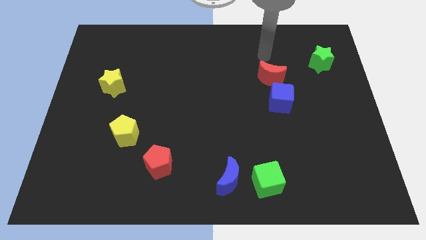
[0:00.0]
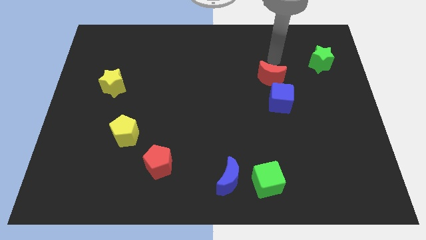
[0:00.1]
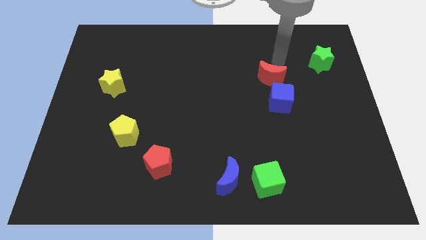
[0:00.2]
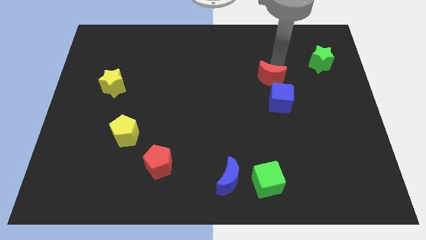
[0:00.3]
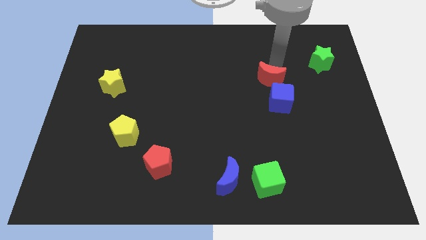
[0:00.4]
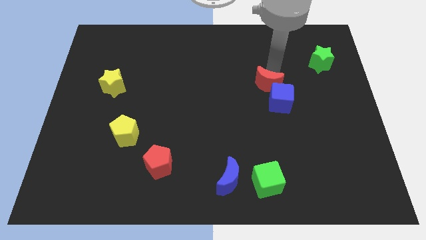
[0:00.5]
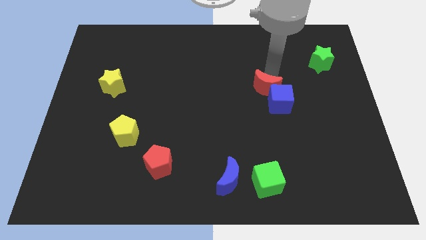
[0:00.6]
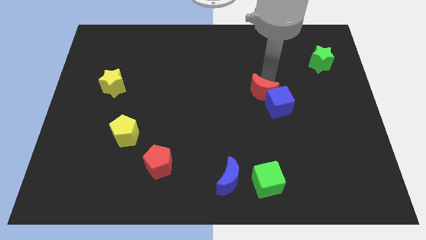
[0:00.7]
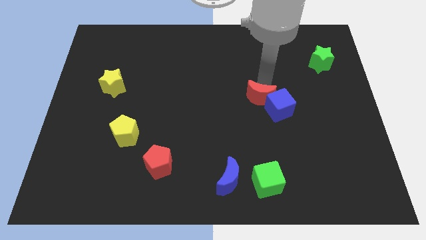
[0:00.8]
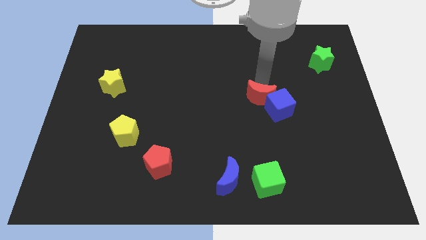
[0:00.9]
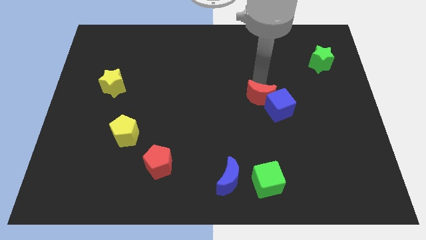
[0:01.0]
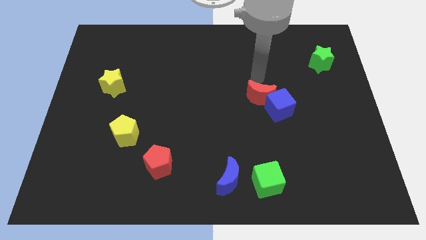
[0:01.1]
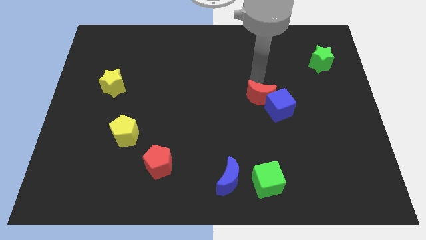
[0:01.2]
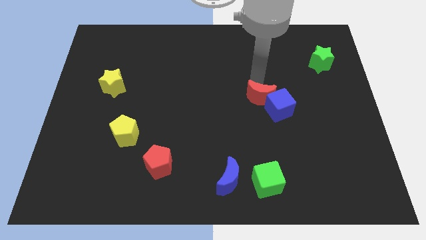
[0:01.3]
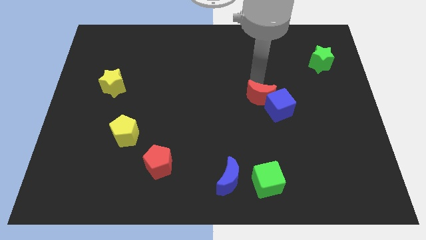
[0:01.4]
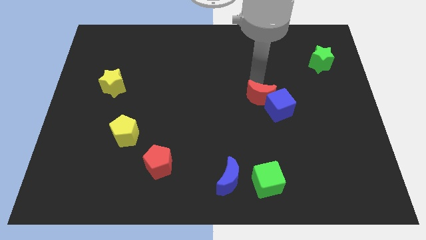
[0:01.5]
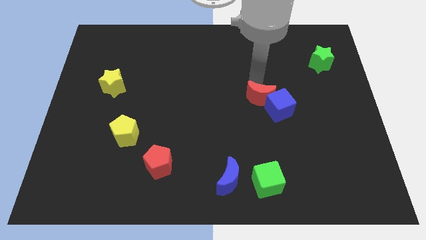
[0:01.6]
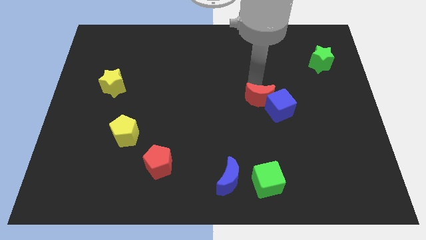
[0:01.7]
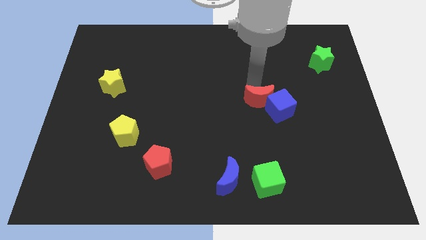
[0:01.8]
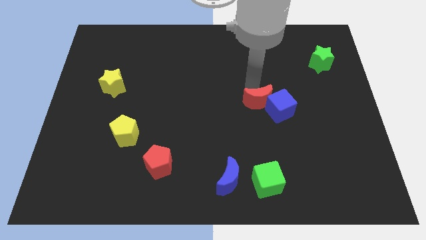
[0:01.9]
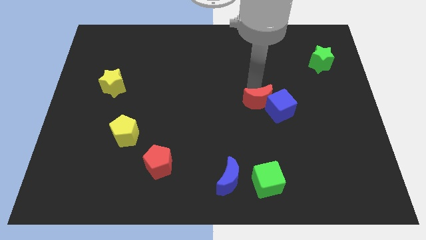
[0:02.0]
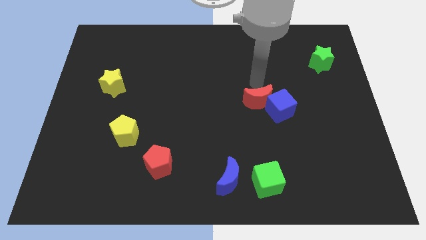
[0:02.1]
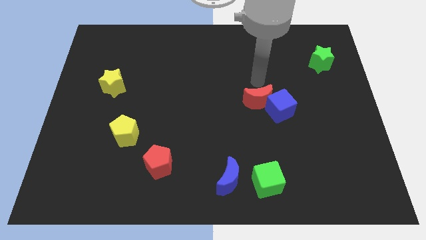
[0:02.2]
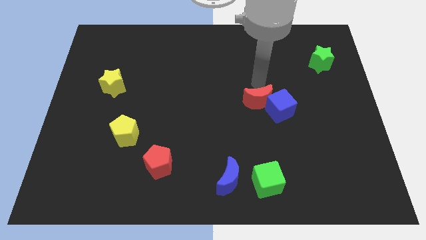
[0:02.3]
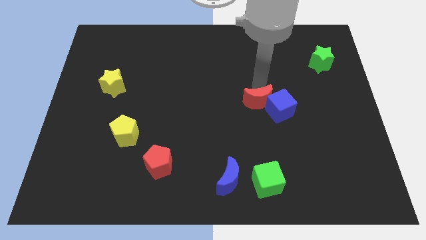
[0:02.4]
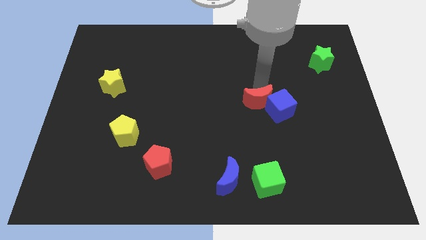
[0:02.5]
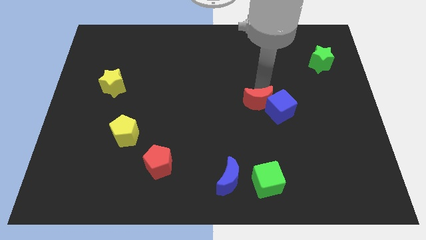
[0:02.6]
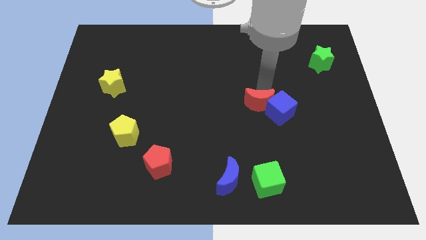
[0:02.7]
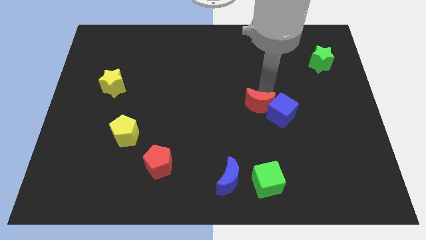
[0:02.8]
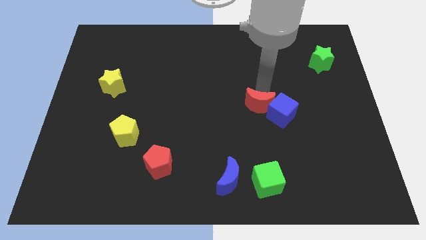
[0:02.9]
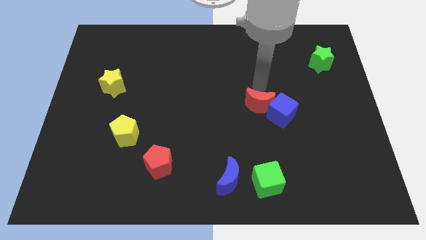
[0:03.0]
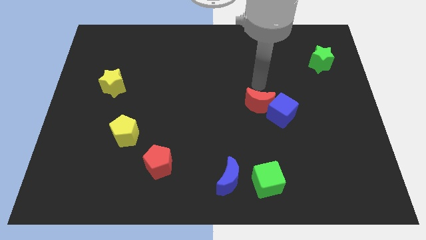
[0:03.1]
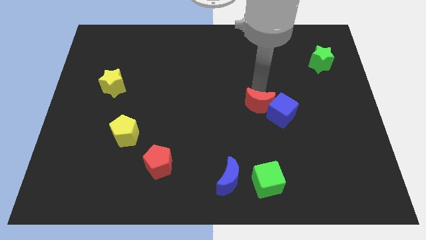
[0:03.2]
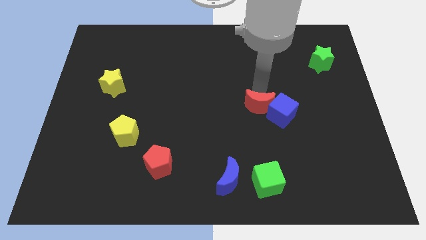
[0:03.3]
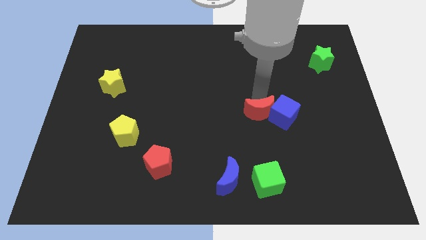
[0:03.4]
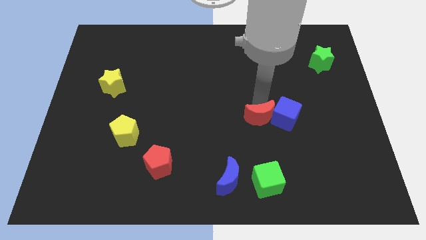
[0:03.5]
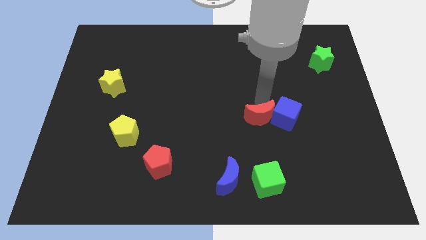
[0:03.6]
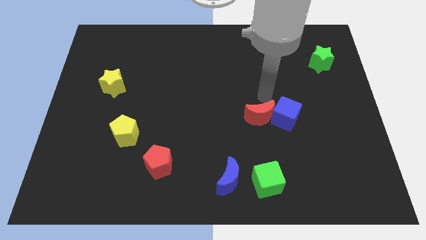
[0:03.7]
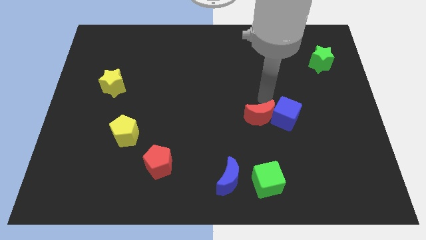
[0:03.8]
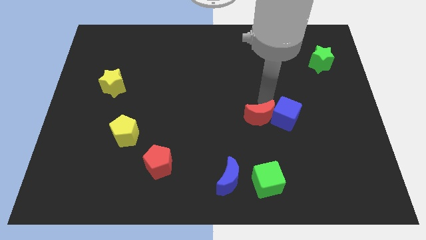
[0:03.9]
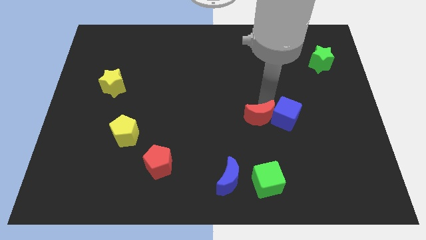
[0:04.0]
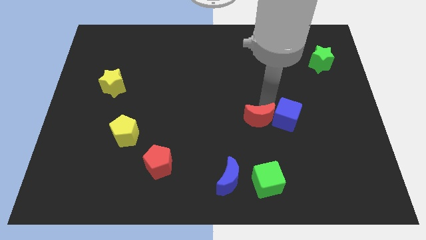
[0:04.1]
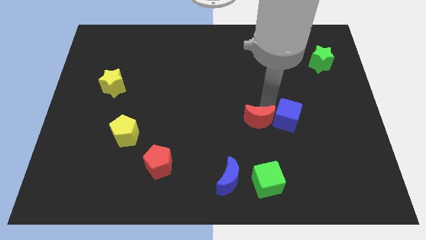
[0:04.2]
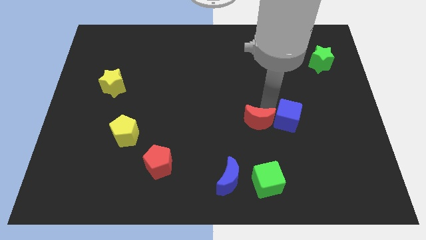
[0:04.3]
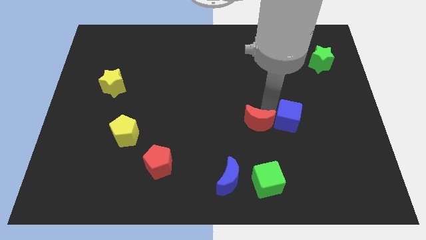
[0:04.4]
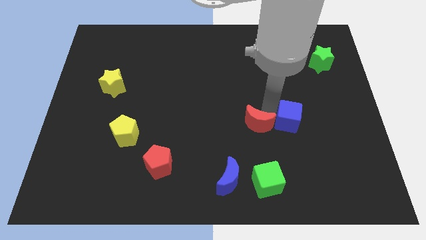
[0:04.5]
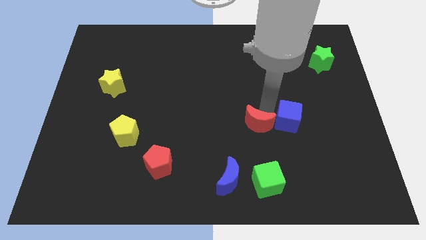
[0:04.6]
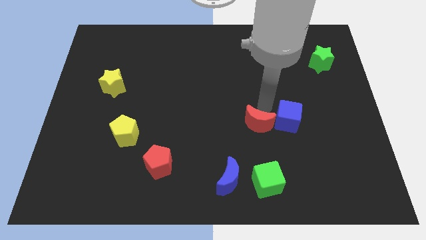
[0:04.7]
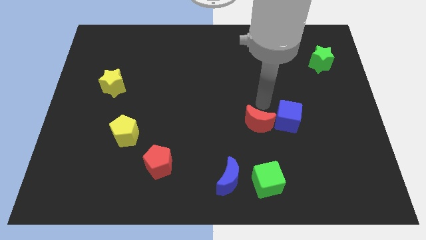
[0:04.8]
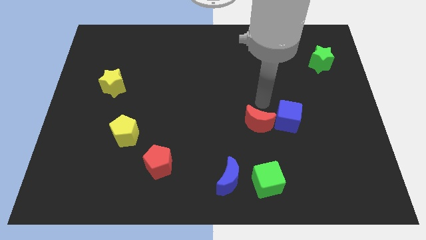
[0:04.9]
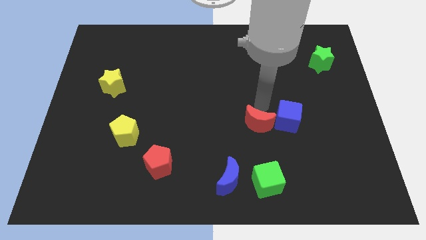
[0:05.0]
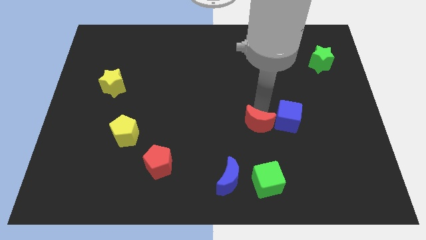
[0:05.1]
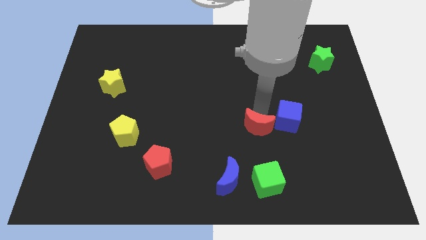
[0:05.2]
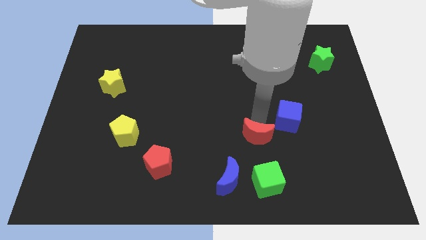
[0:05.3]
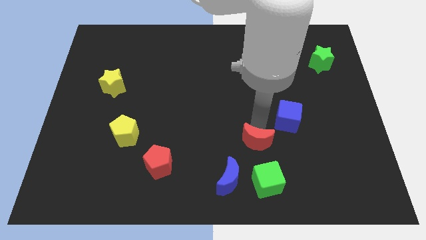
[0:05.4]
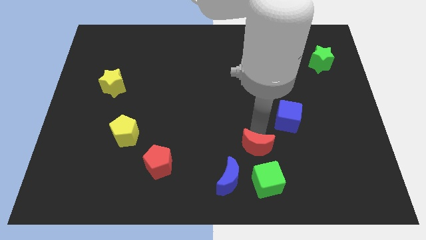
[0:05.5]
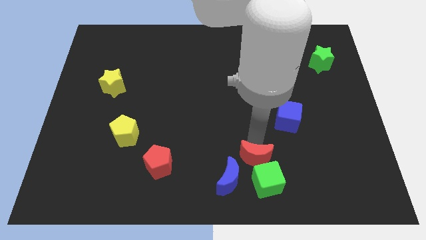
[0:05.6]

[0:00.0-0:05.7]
slide the red moon towards the green cube

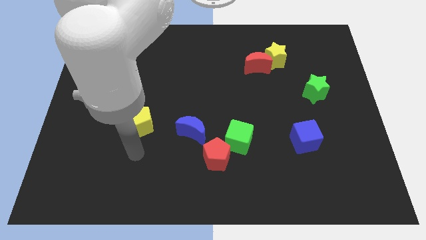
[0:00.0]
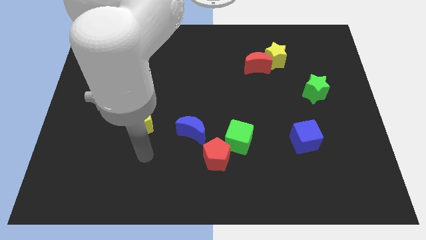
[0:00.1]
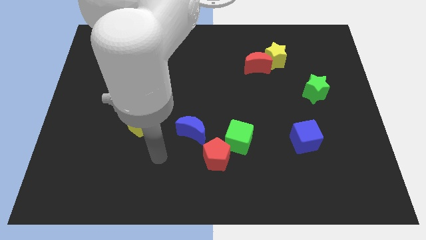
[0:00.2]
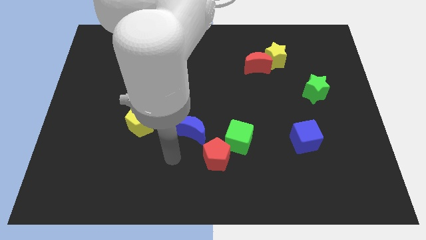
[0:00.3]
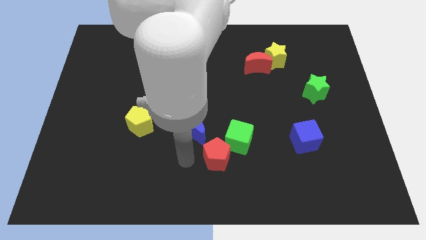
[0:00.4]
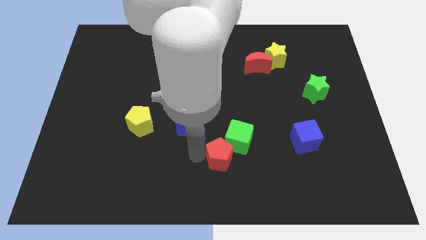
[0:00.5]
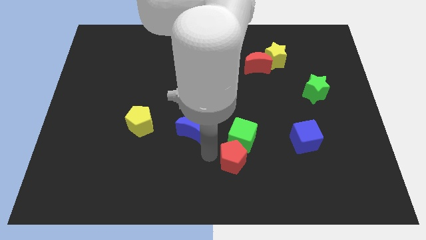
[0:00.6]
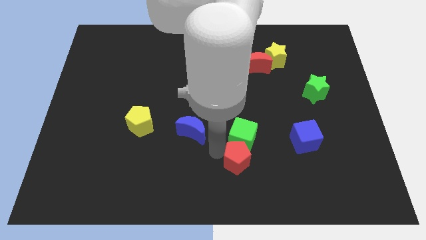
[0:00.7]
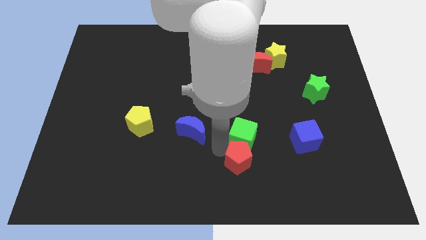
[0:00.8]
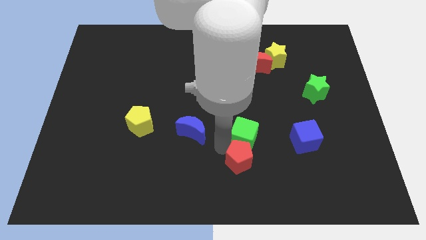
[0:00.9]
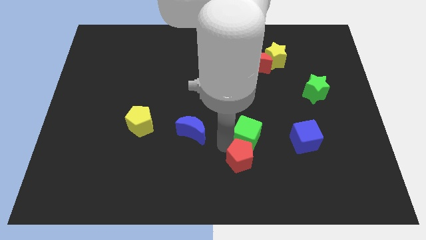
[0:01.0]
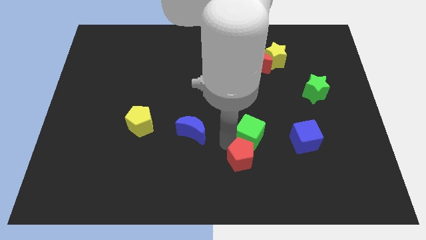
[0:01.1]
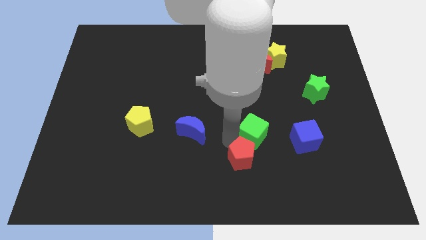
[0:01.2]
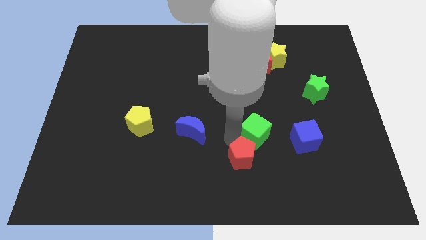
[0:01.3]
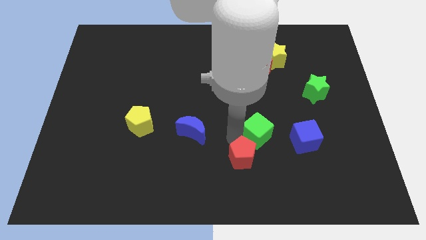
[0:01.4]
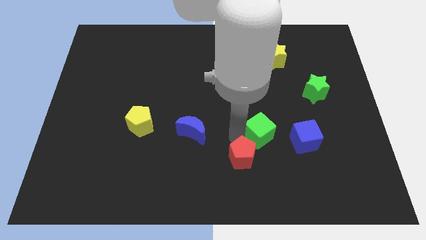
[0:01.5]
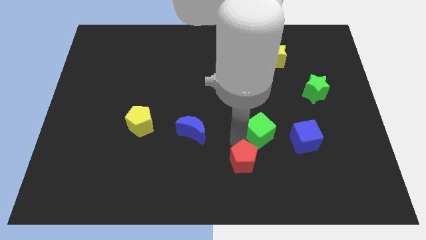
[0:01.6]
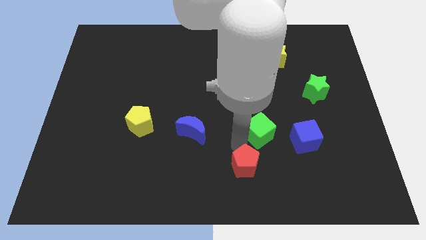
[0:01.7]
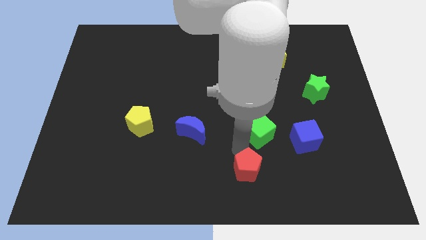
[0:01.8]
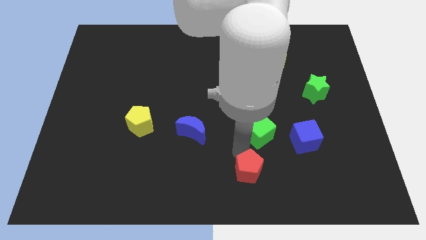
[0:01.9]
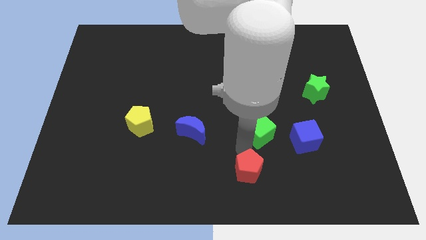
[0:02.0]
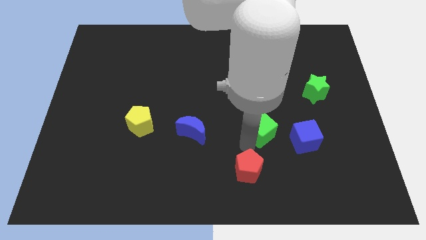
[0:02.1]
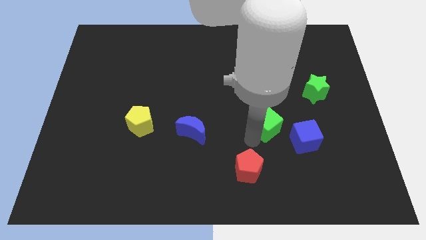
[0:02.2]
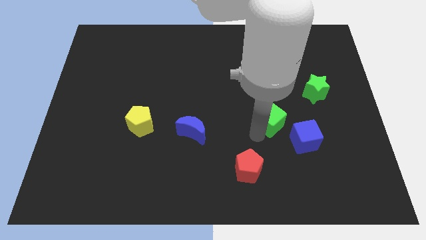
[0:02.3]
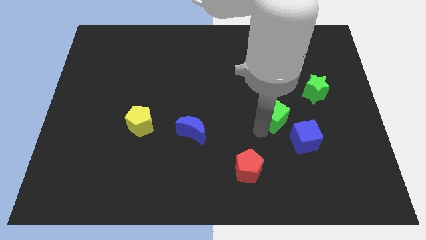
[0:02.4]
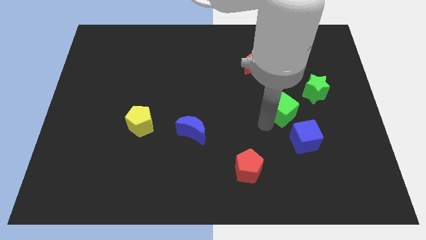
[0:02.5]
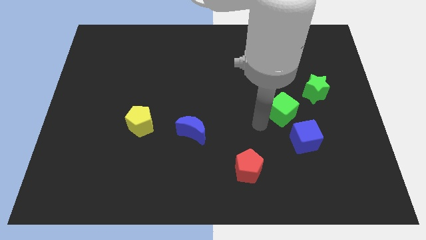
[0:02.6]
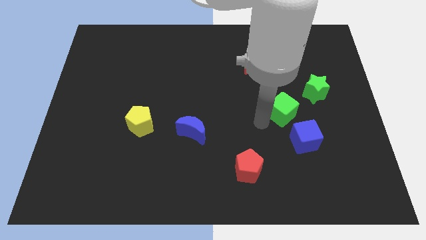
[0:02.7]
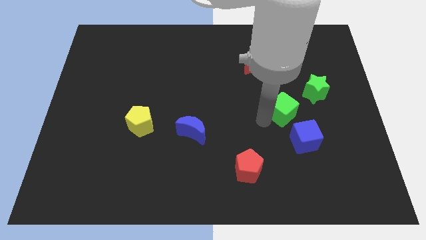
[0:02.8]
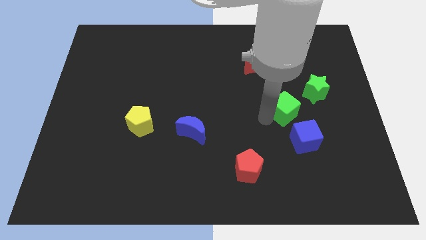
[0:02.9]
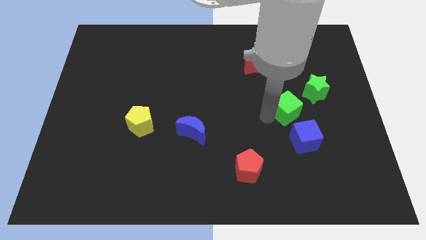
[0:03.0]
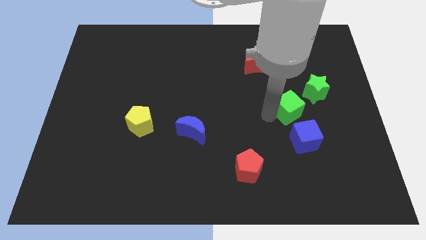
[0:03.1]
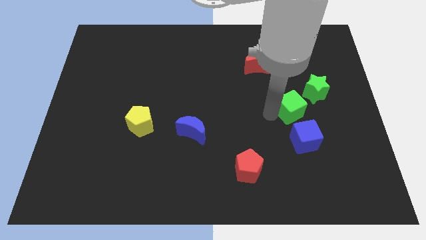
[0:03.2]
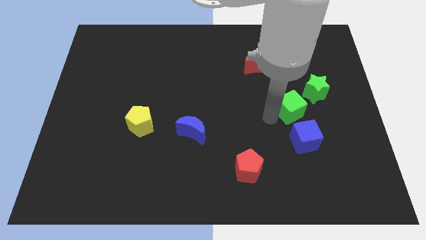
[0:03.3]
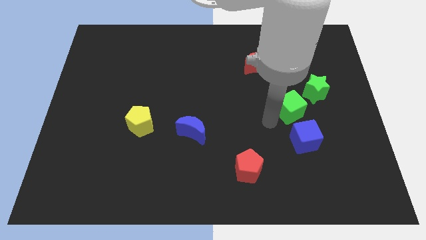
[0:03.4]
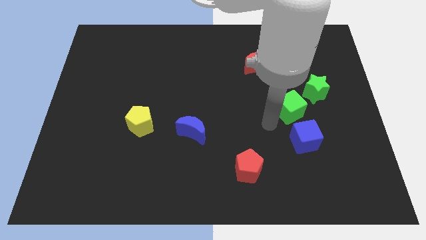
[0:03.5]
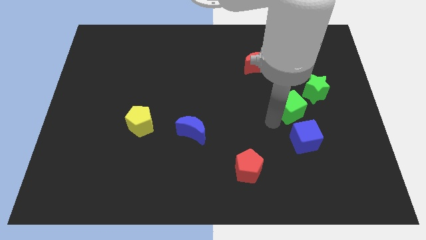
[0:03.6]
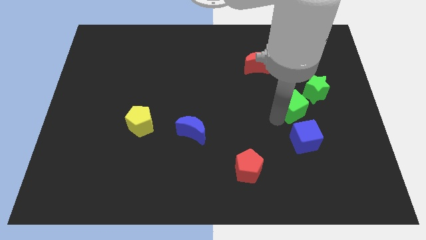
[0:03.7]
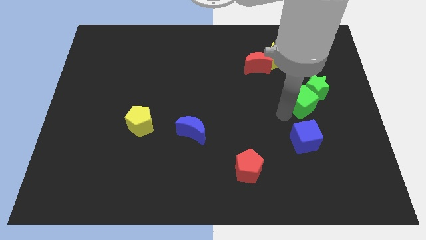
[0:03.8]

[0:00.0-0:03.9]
slide the green cube to the green star
